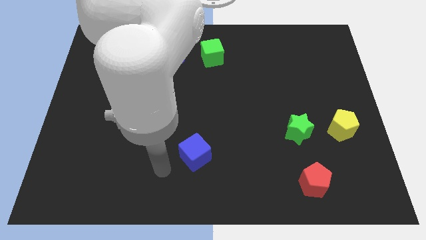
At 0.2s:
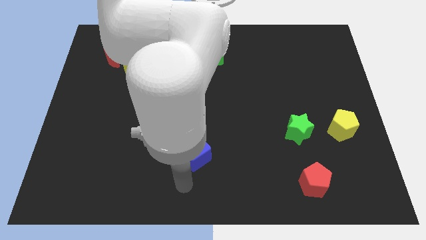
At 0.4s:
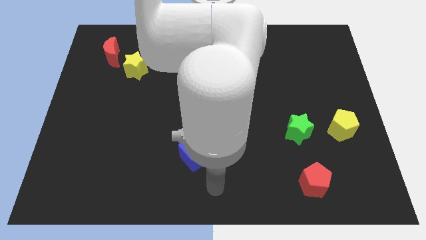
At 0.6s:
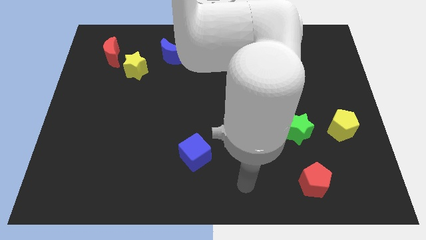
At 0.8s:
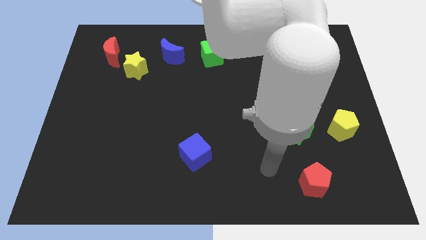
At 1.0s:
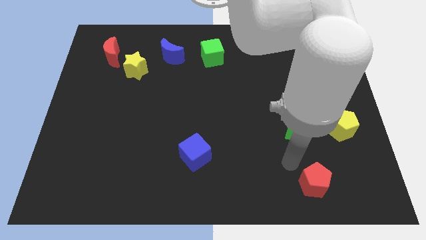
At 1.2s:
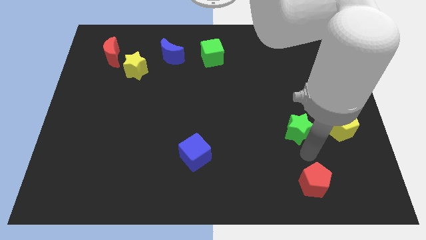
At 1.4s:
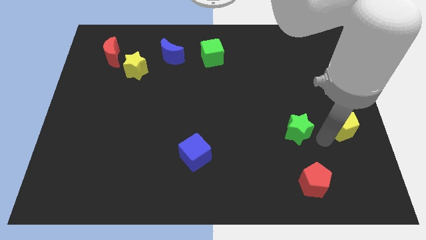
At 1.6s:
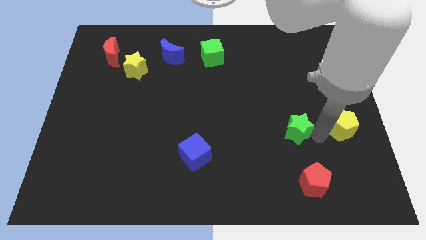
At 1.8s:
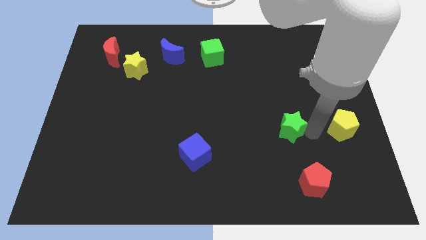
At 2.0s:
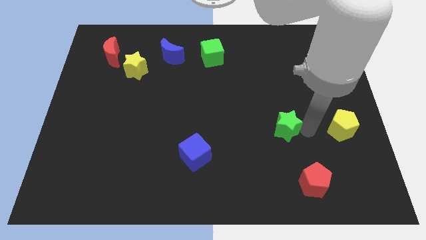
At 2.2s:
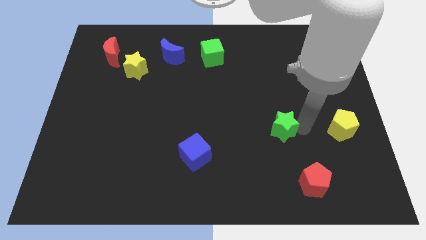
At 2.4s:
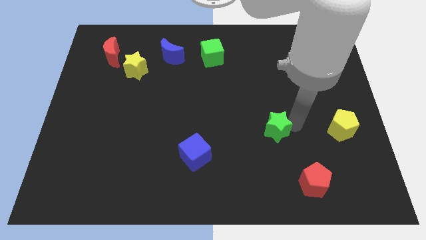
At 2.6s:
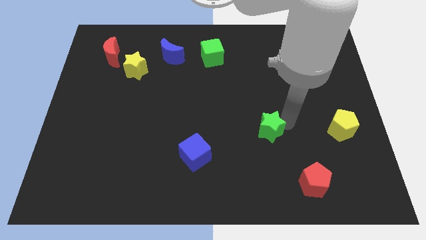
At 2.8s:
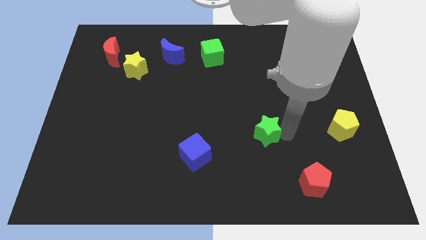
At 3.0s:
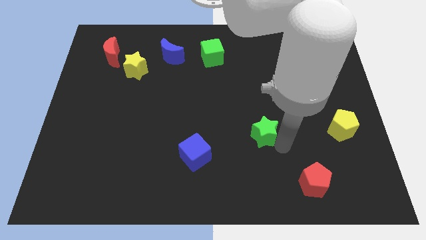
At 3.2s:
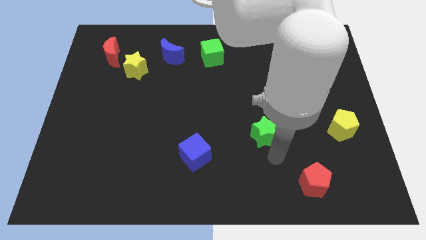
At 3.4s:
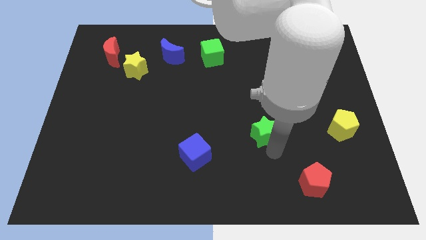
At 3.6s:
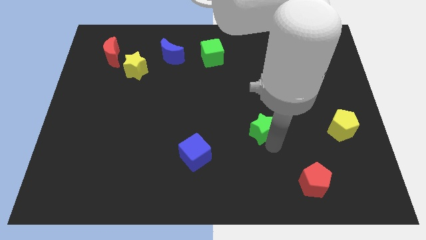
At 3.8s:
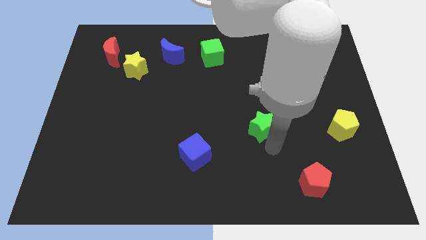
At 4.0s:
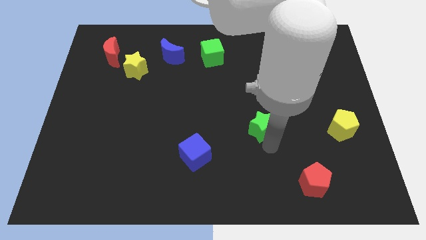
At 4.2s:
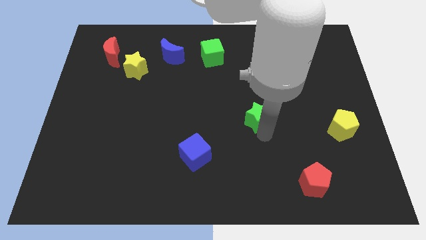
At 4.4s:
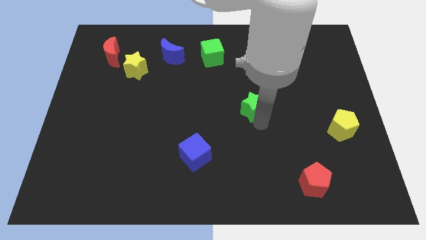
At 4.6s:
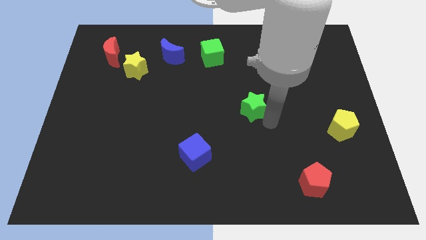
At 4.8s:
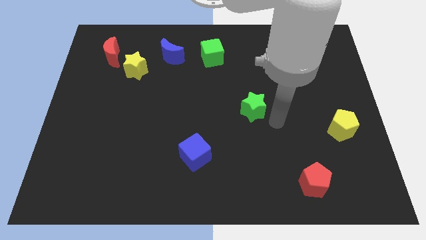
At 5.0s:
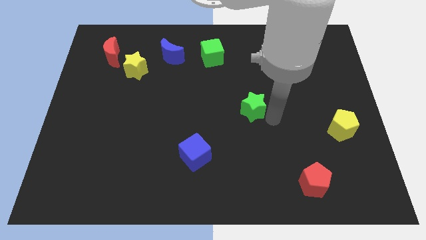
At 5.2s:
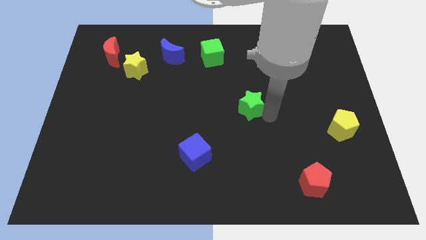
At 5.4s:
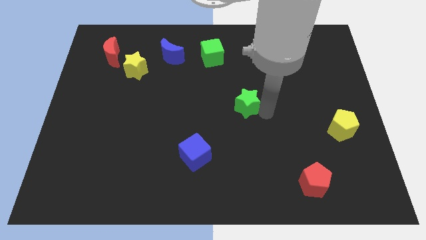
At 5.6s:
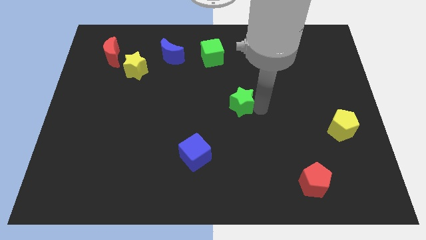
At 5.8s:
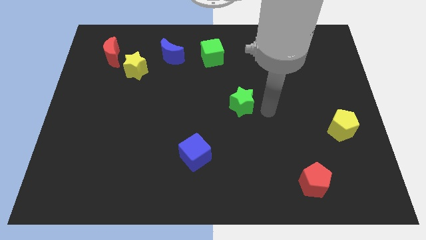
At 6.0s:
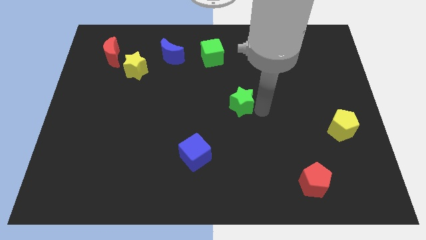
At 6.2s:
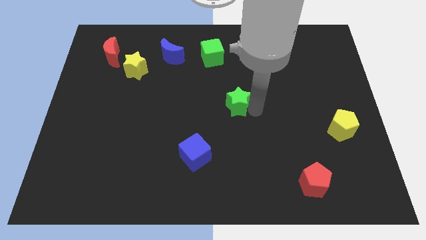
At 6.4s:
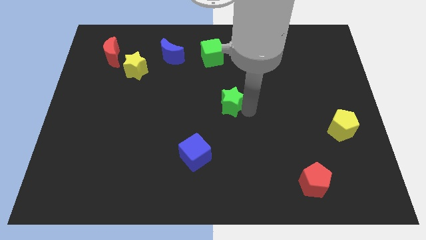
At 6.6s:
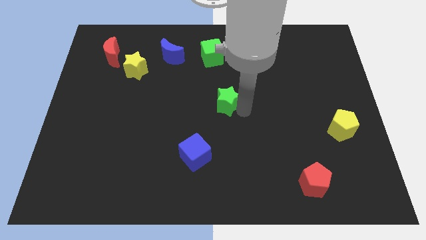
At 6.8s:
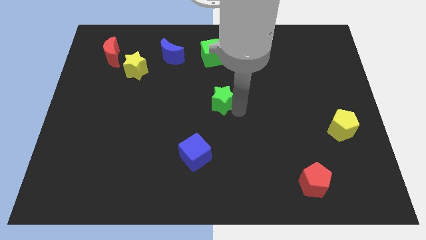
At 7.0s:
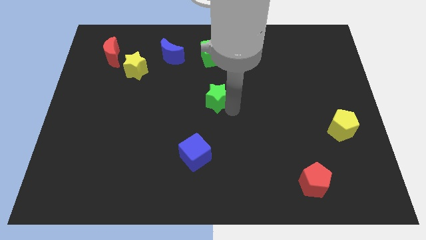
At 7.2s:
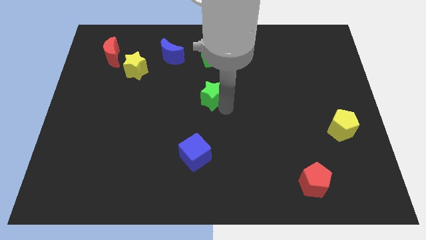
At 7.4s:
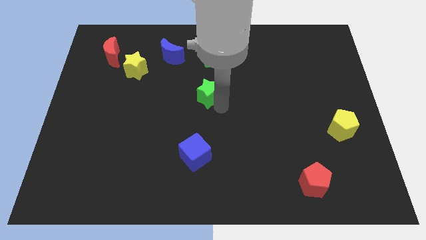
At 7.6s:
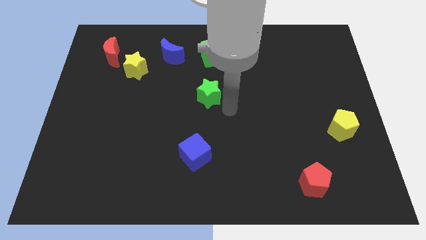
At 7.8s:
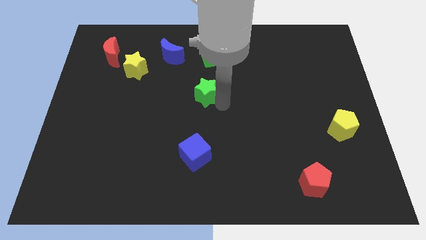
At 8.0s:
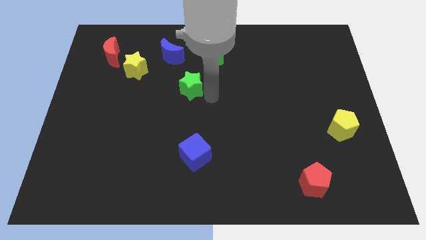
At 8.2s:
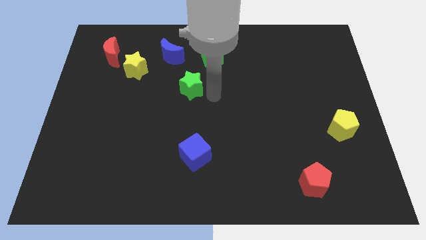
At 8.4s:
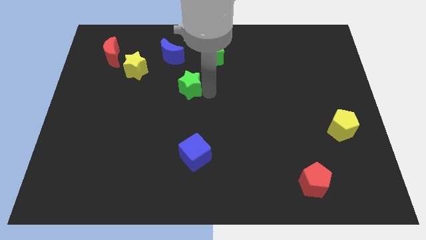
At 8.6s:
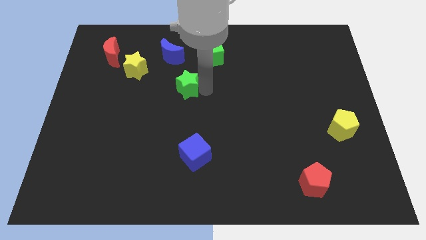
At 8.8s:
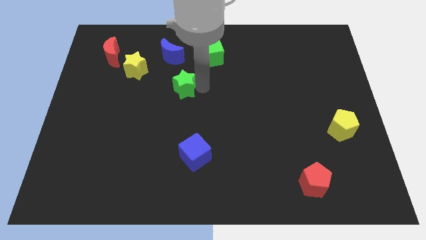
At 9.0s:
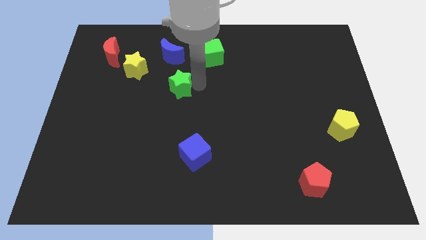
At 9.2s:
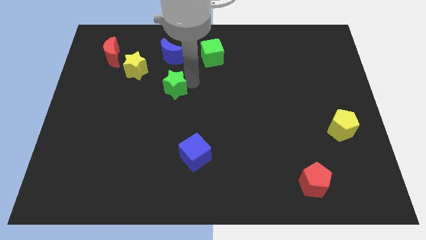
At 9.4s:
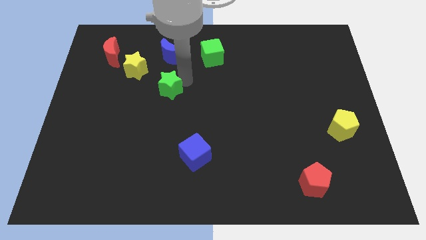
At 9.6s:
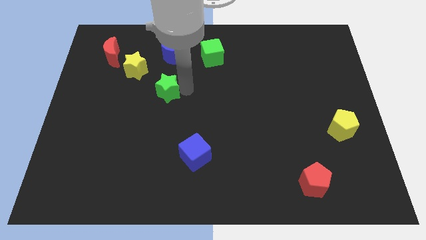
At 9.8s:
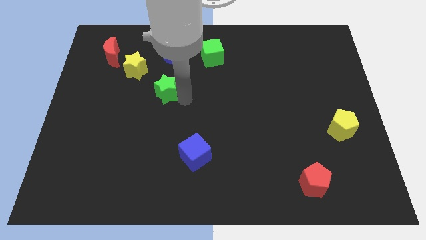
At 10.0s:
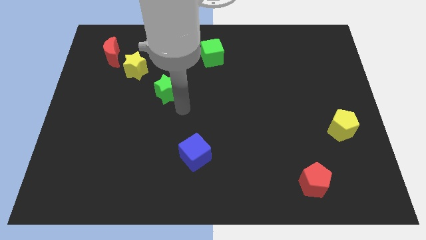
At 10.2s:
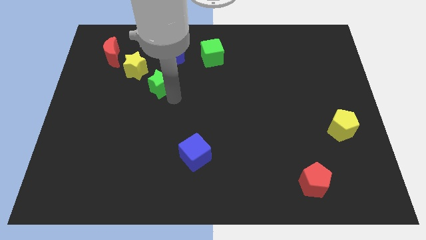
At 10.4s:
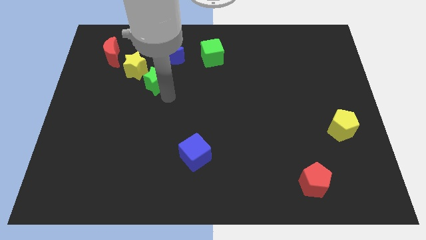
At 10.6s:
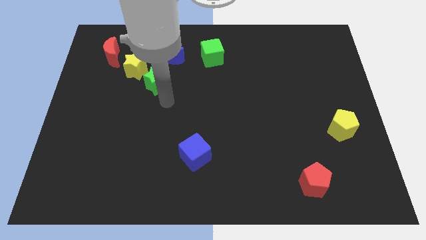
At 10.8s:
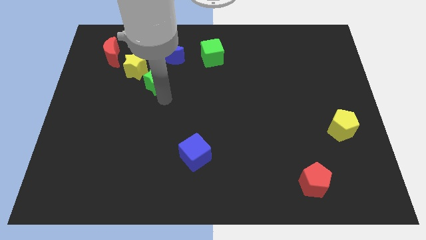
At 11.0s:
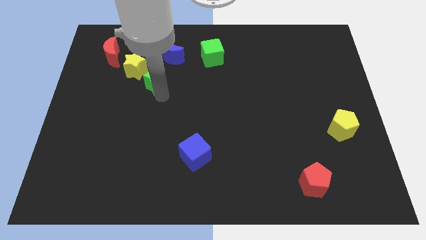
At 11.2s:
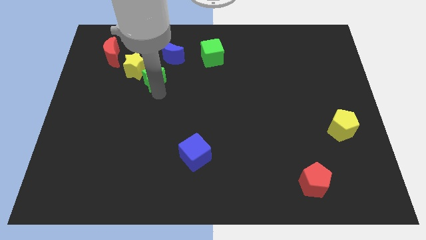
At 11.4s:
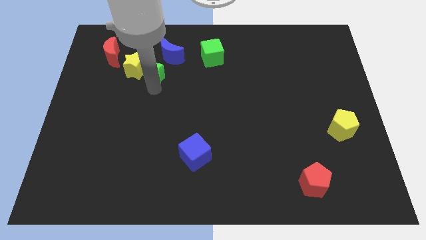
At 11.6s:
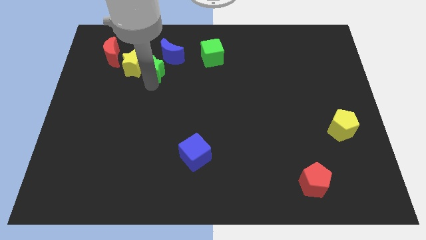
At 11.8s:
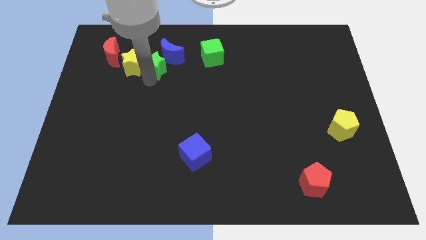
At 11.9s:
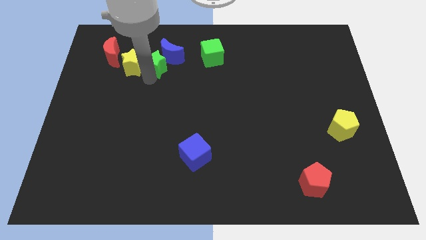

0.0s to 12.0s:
push the green star left of the green cube

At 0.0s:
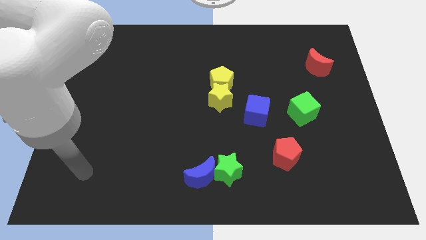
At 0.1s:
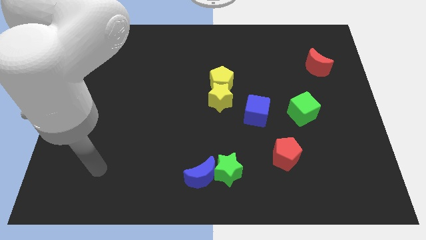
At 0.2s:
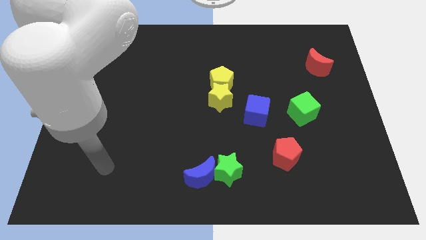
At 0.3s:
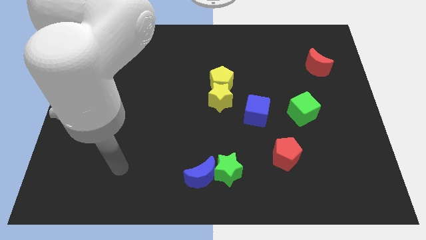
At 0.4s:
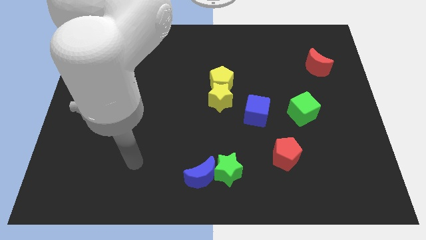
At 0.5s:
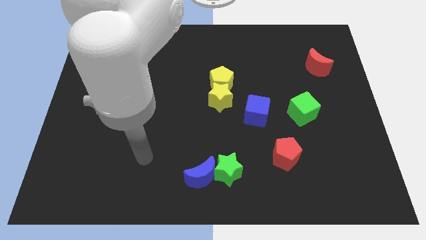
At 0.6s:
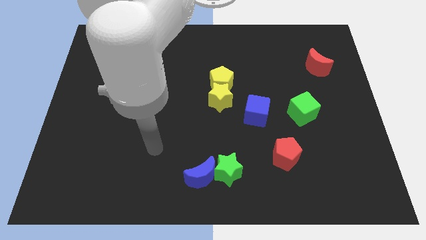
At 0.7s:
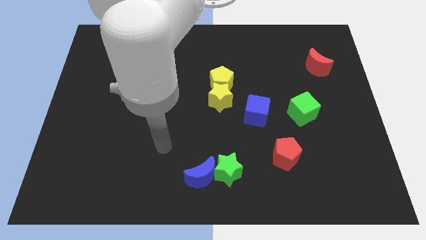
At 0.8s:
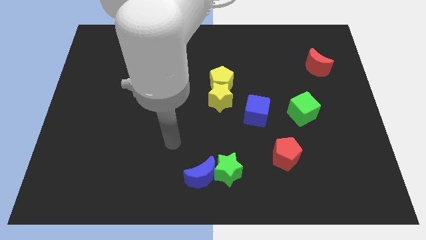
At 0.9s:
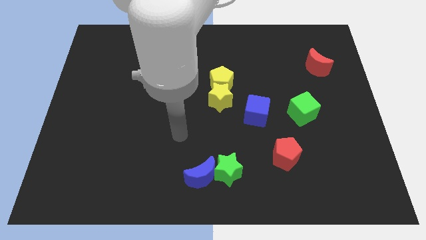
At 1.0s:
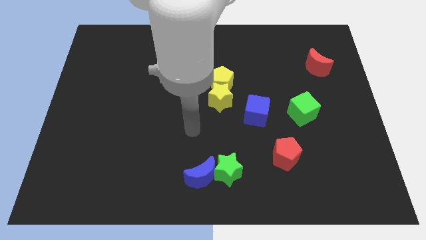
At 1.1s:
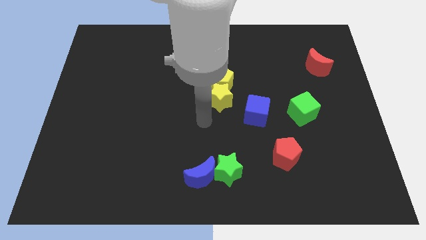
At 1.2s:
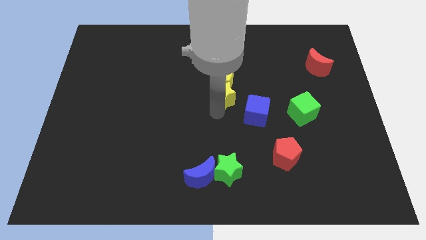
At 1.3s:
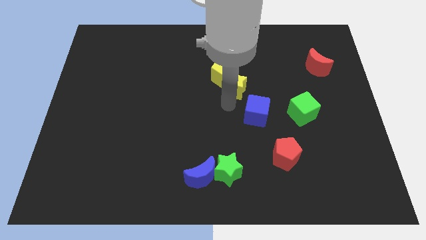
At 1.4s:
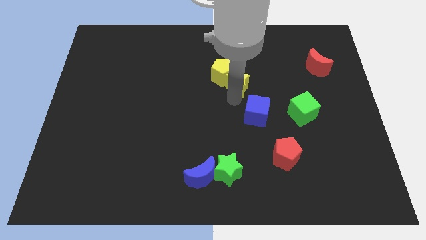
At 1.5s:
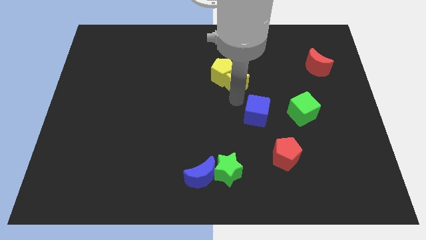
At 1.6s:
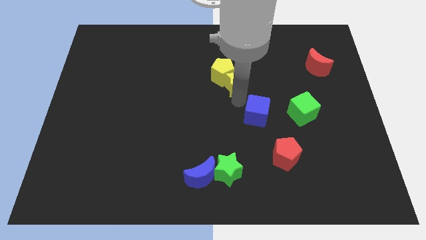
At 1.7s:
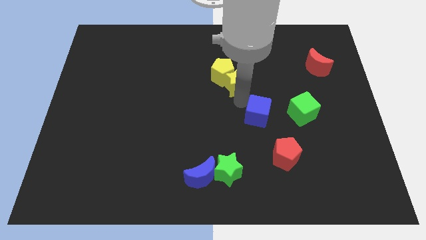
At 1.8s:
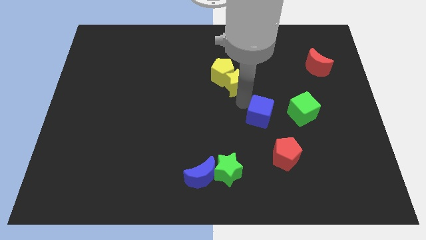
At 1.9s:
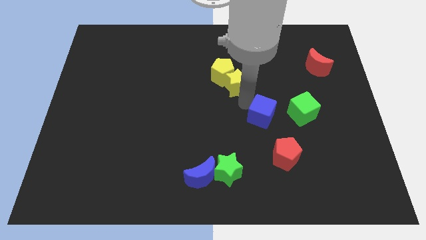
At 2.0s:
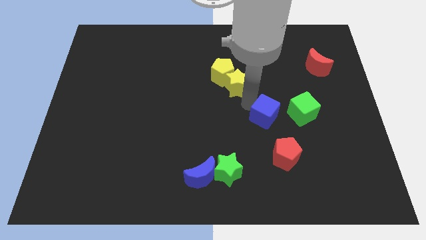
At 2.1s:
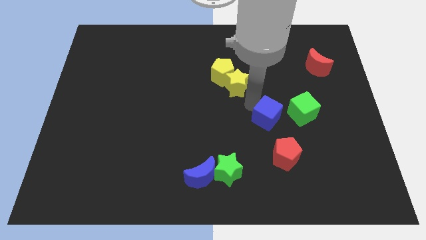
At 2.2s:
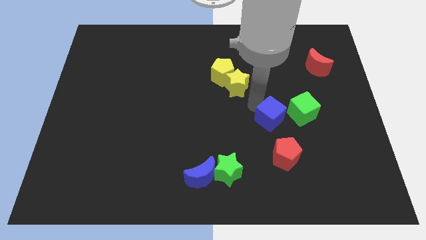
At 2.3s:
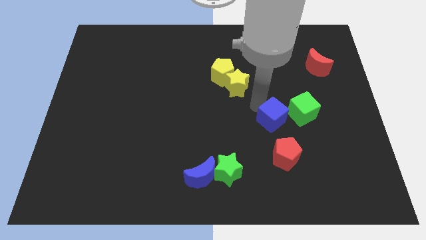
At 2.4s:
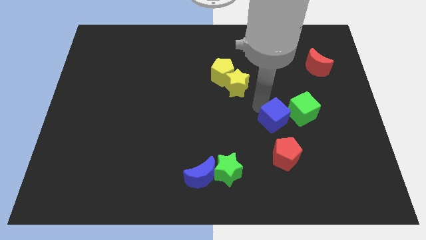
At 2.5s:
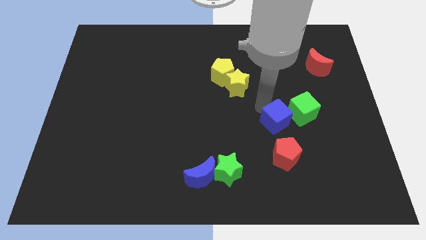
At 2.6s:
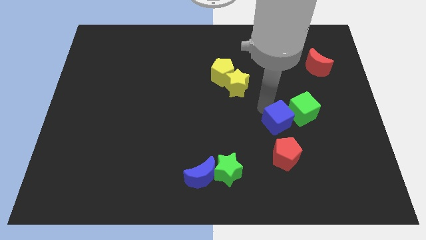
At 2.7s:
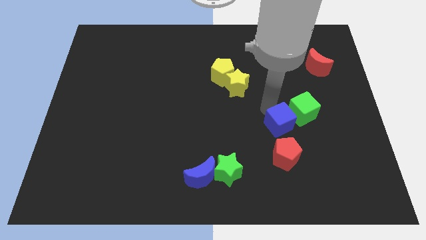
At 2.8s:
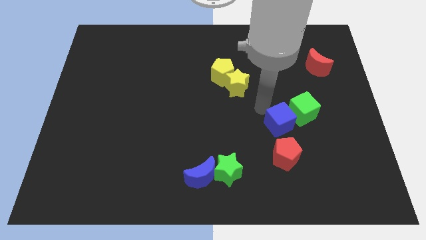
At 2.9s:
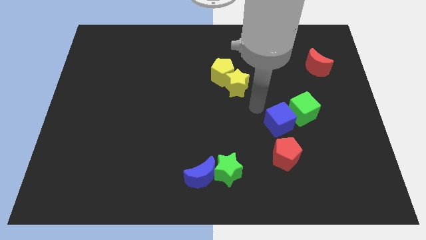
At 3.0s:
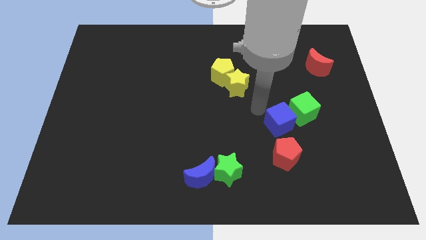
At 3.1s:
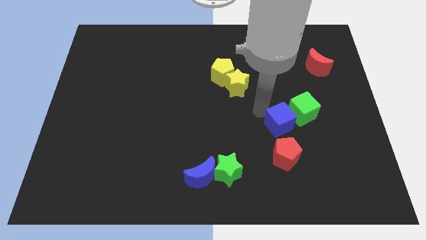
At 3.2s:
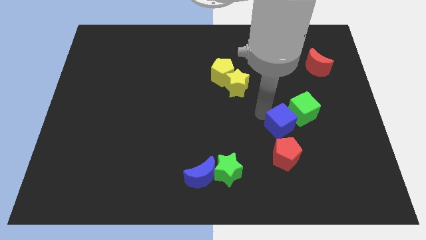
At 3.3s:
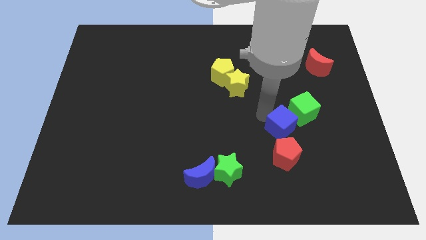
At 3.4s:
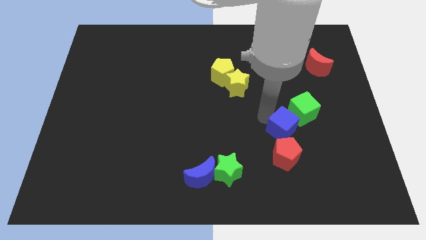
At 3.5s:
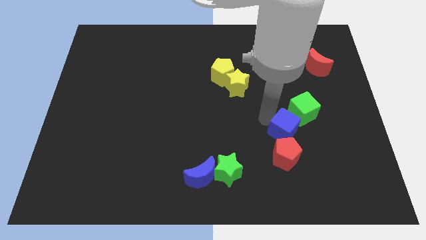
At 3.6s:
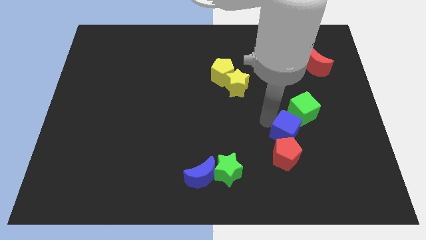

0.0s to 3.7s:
put the blue cube to the bottom of the green cube
